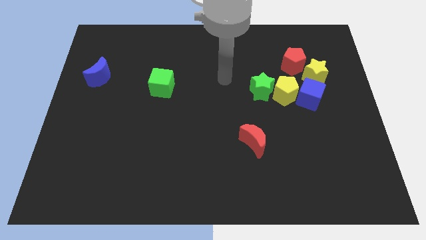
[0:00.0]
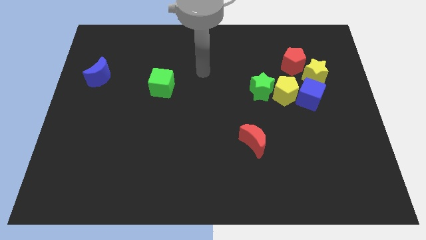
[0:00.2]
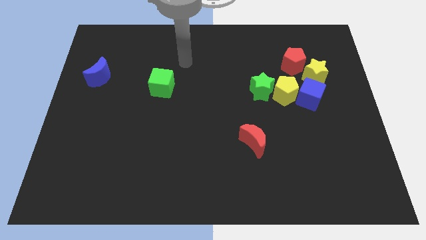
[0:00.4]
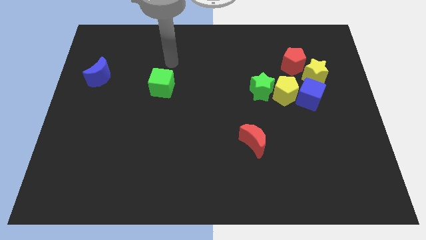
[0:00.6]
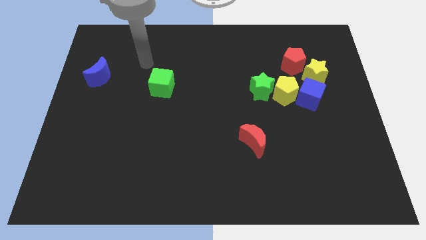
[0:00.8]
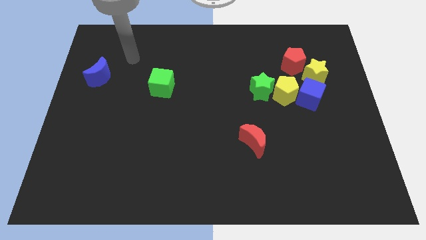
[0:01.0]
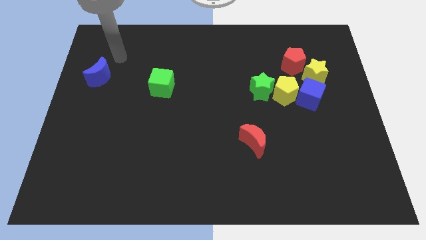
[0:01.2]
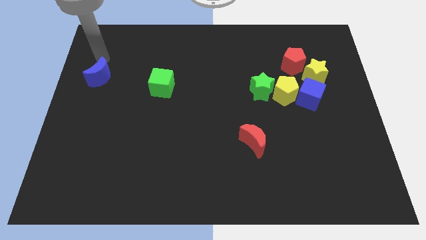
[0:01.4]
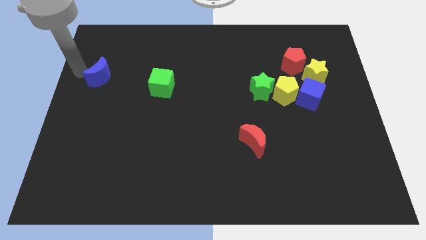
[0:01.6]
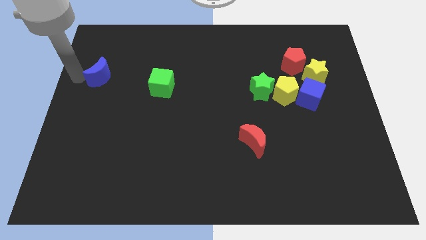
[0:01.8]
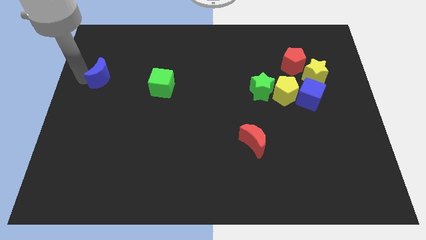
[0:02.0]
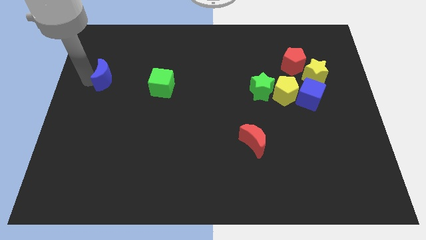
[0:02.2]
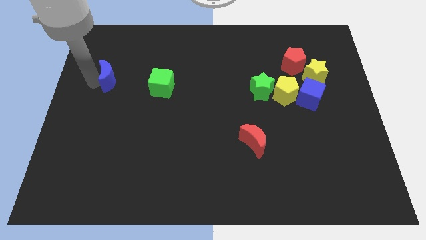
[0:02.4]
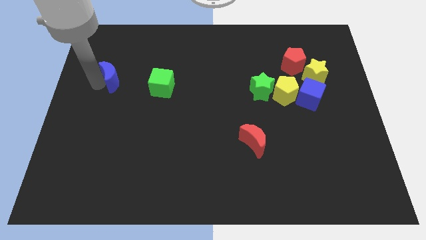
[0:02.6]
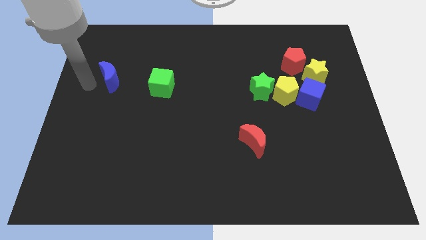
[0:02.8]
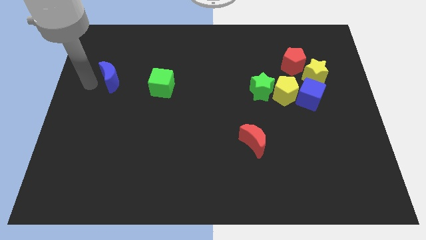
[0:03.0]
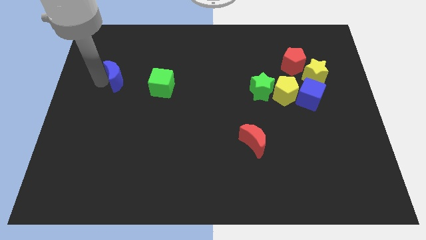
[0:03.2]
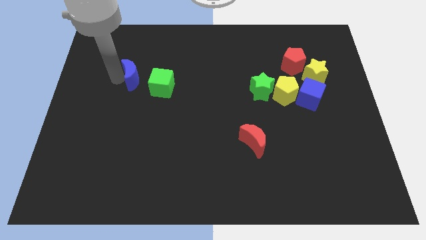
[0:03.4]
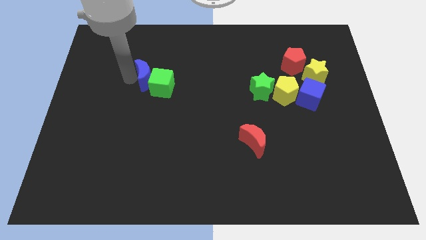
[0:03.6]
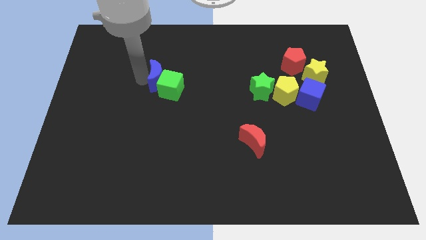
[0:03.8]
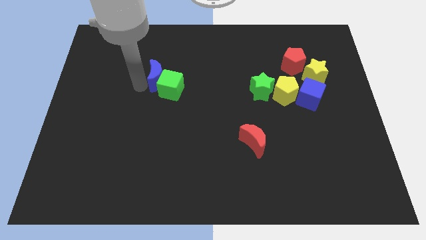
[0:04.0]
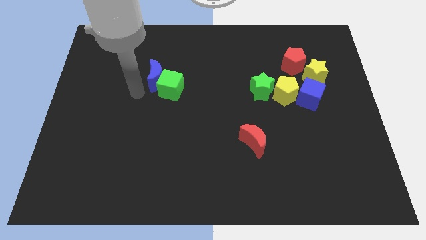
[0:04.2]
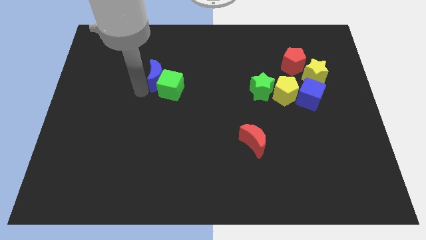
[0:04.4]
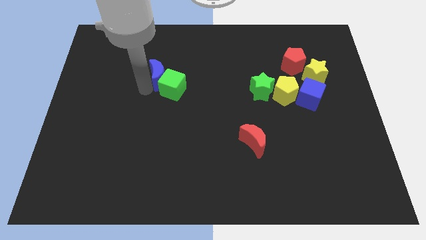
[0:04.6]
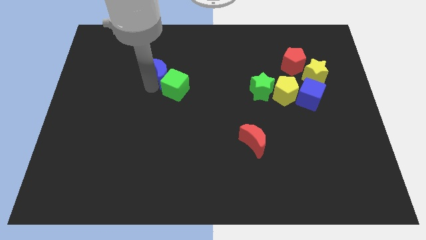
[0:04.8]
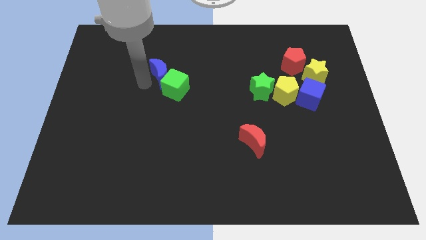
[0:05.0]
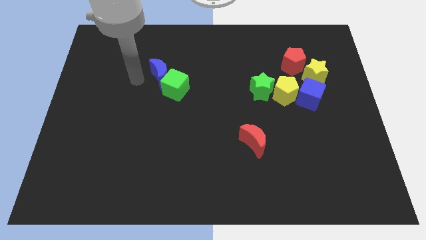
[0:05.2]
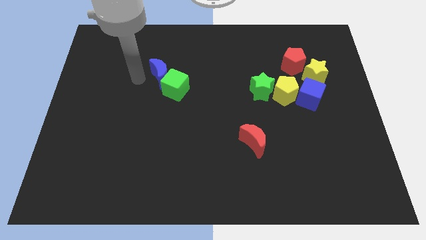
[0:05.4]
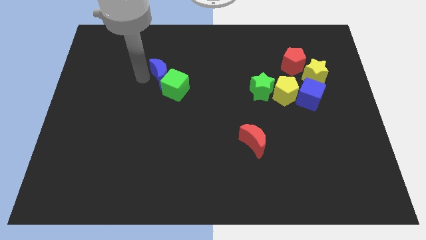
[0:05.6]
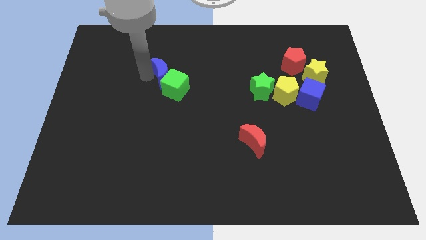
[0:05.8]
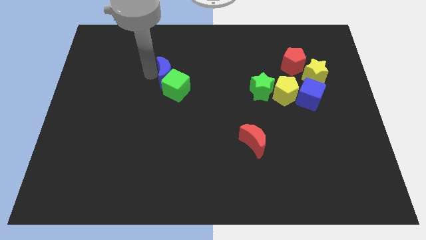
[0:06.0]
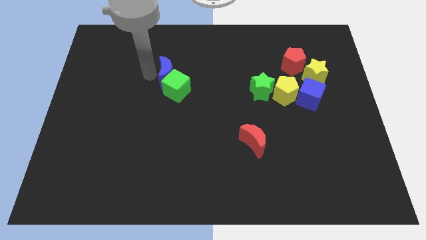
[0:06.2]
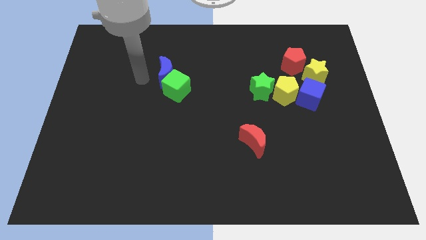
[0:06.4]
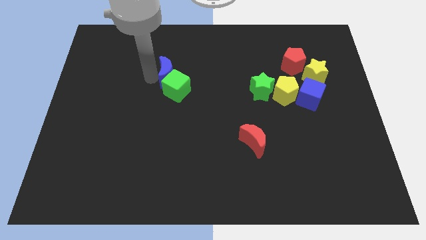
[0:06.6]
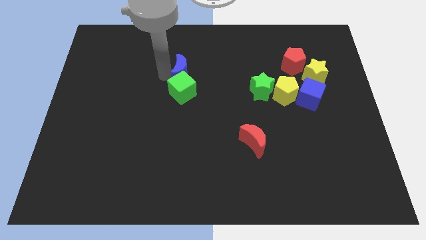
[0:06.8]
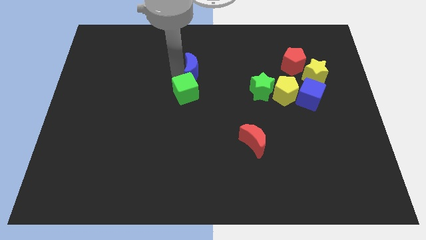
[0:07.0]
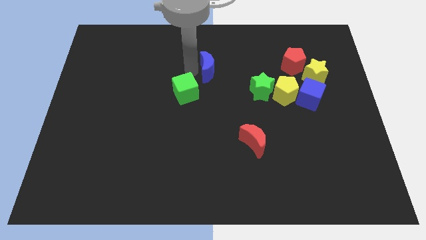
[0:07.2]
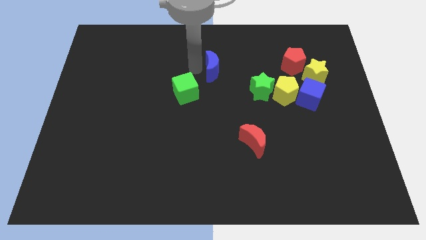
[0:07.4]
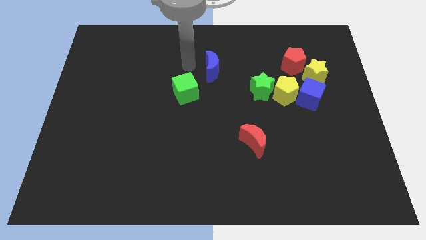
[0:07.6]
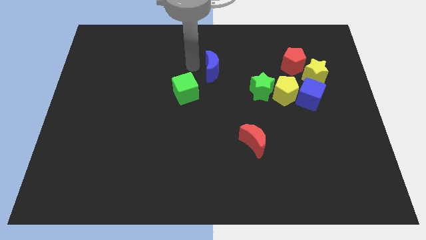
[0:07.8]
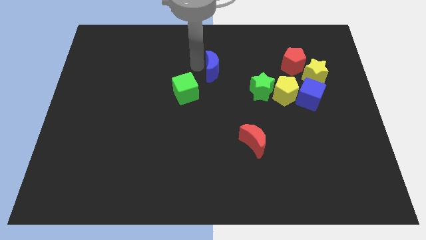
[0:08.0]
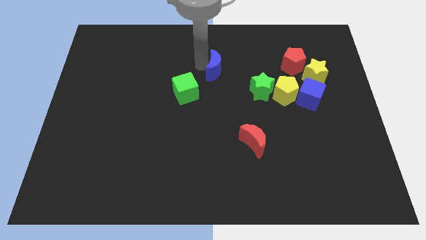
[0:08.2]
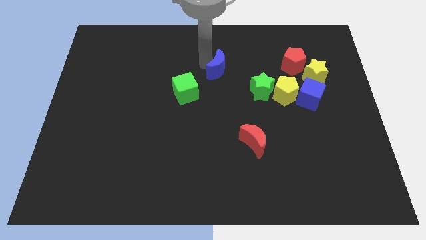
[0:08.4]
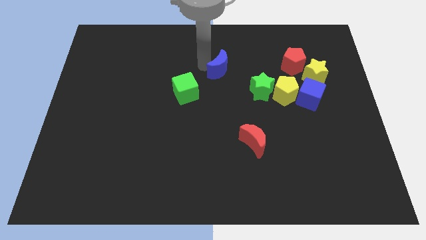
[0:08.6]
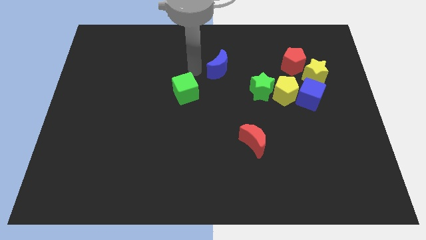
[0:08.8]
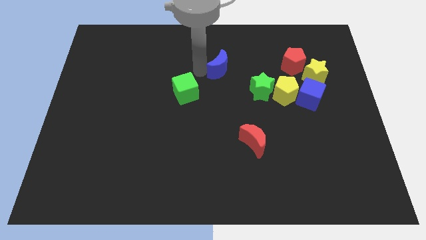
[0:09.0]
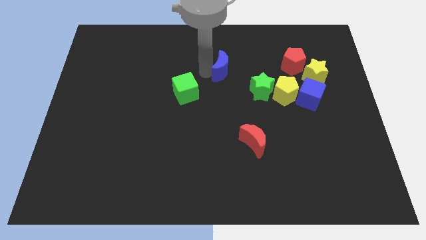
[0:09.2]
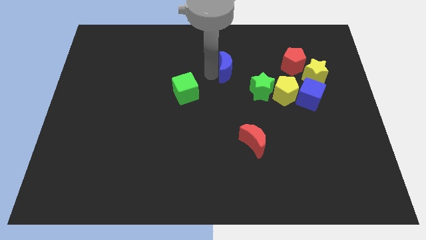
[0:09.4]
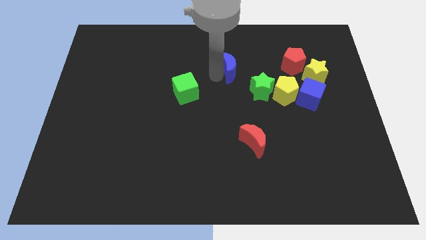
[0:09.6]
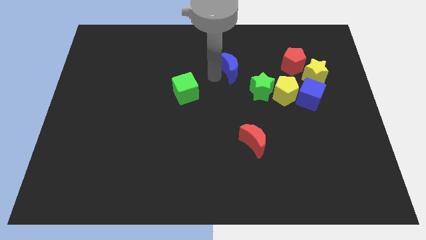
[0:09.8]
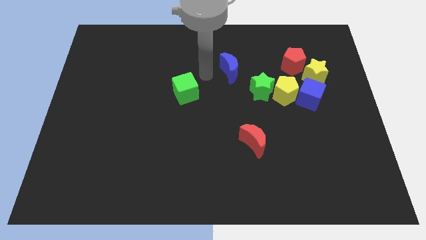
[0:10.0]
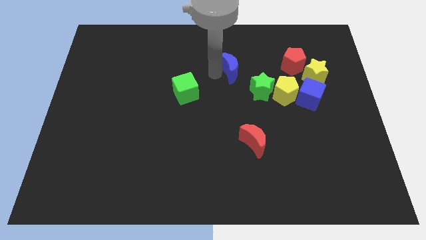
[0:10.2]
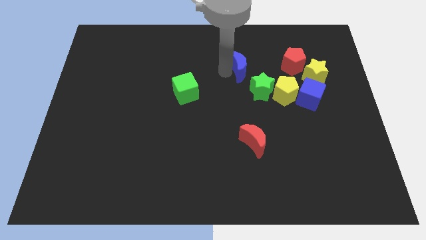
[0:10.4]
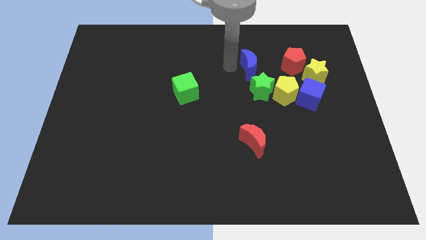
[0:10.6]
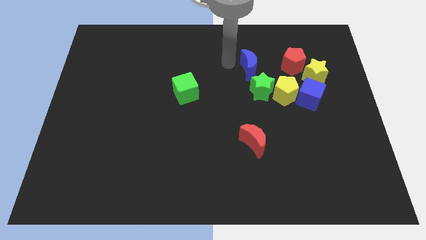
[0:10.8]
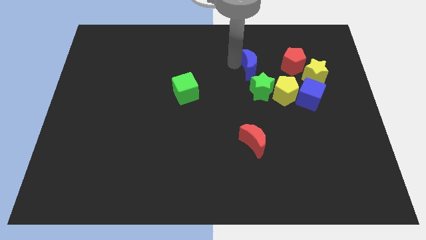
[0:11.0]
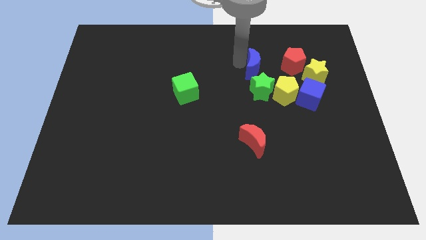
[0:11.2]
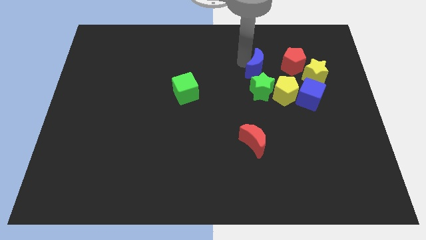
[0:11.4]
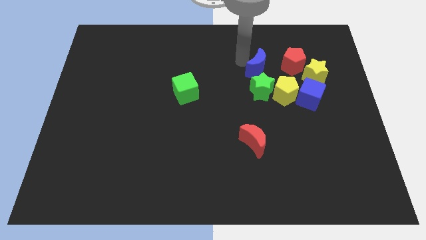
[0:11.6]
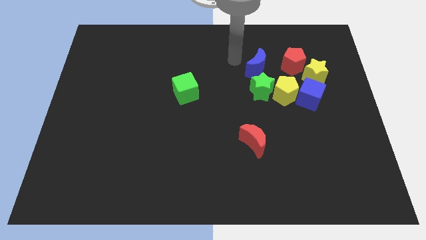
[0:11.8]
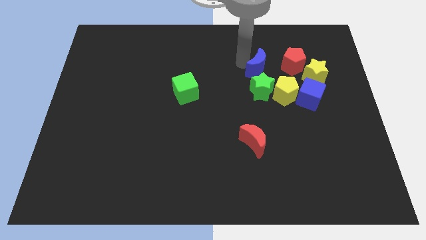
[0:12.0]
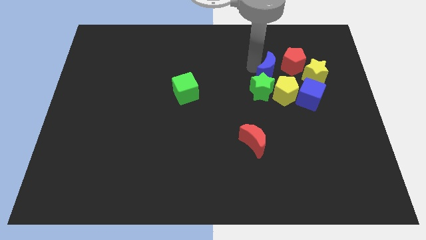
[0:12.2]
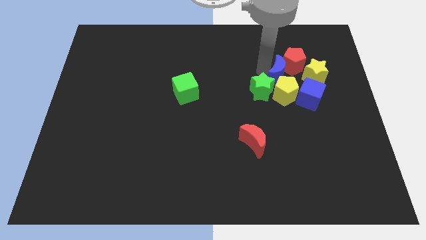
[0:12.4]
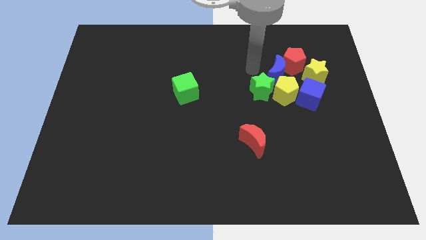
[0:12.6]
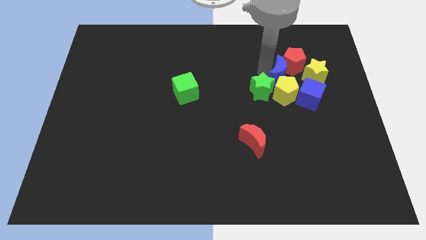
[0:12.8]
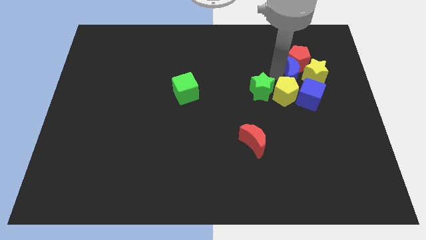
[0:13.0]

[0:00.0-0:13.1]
slide the blue moon to the yellow star
